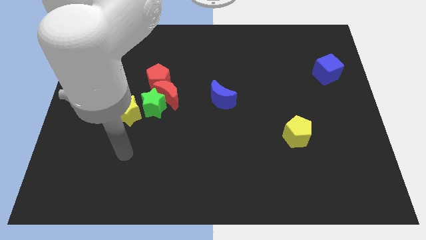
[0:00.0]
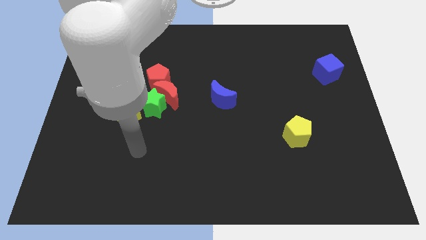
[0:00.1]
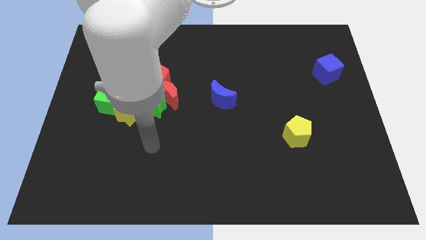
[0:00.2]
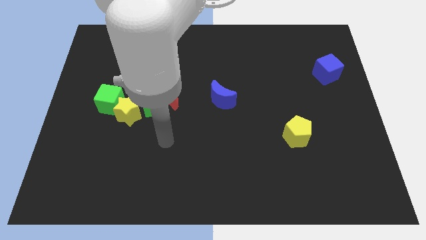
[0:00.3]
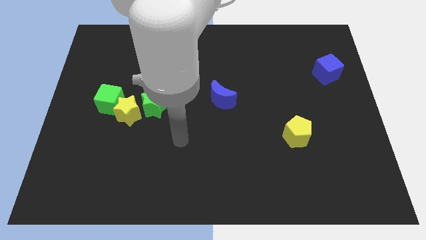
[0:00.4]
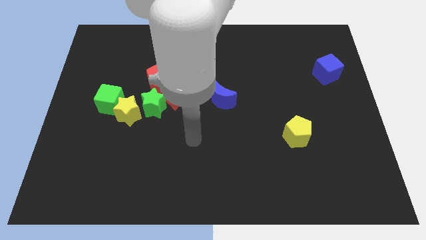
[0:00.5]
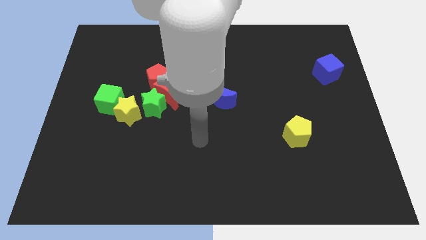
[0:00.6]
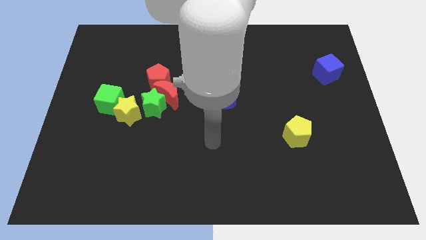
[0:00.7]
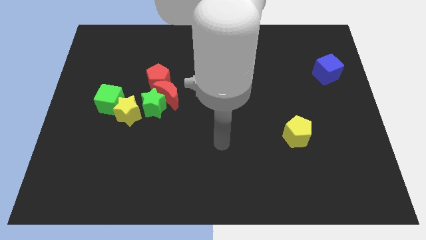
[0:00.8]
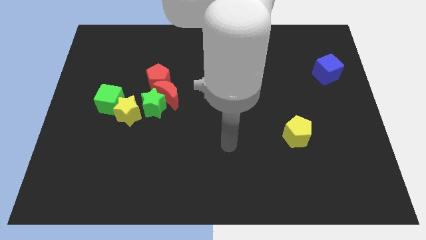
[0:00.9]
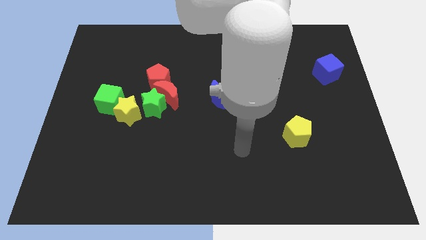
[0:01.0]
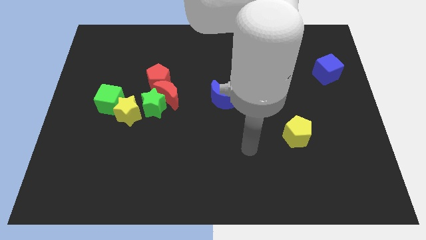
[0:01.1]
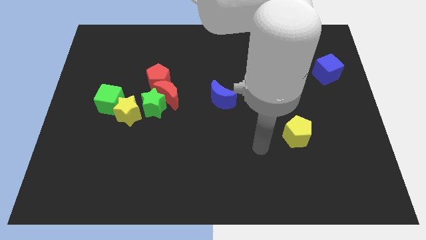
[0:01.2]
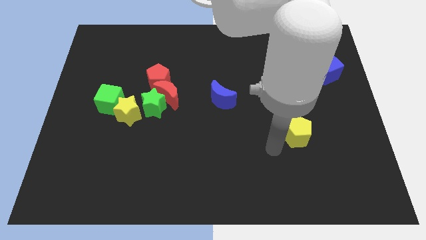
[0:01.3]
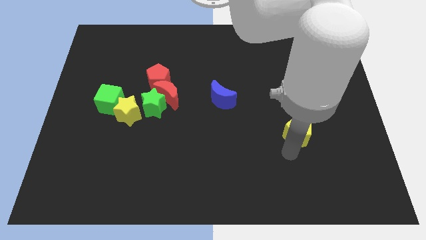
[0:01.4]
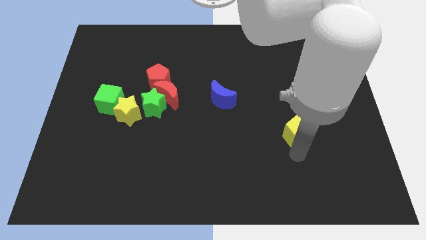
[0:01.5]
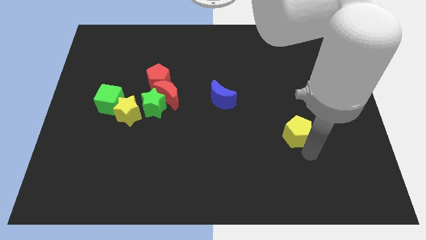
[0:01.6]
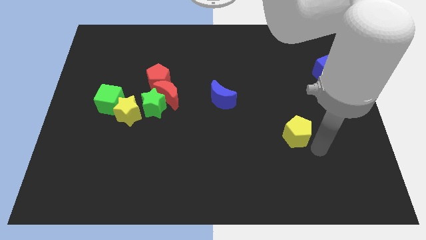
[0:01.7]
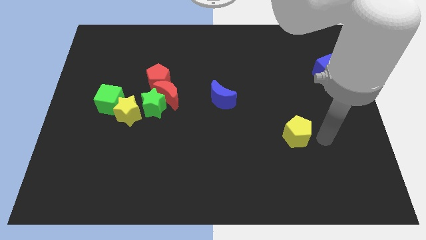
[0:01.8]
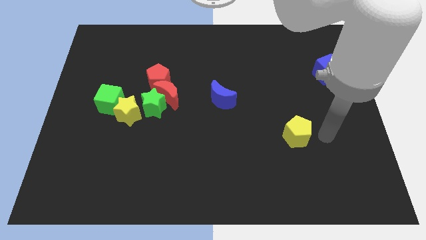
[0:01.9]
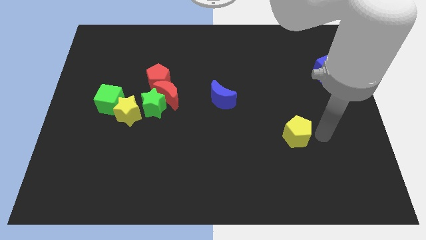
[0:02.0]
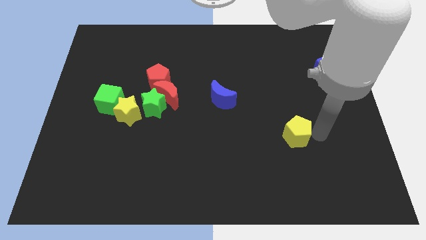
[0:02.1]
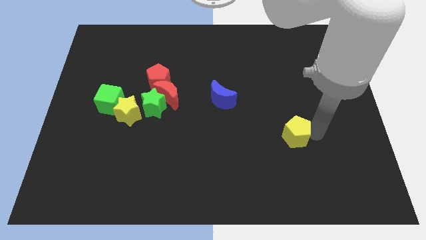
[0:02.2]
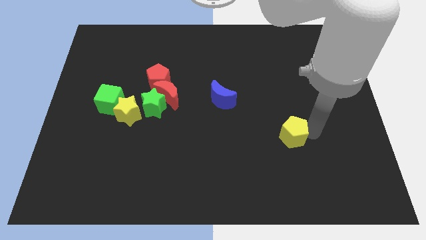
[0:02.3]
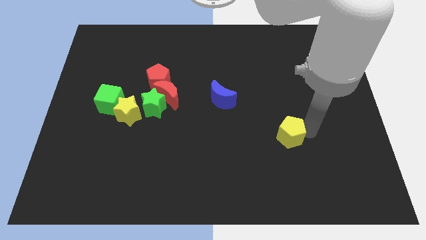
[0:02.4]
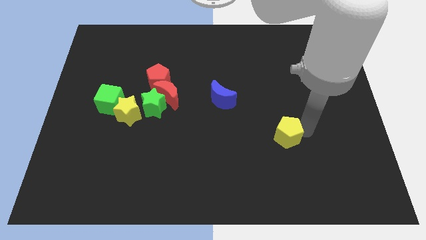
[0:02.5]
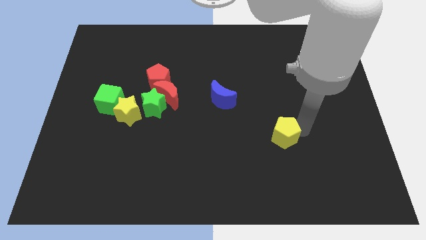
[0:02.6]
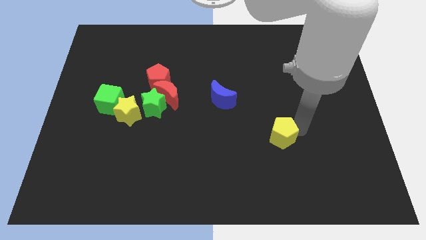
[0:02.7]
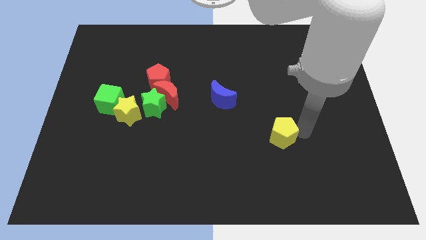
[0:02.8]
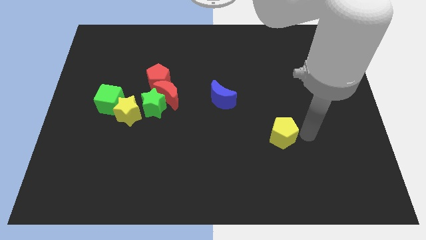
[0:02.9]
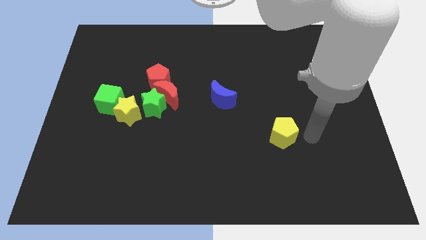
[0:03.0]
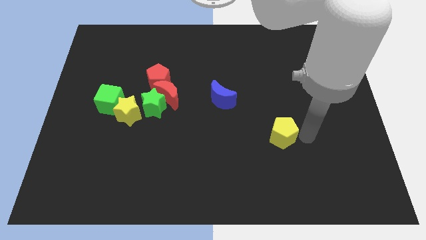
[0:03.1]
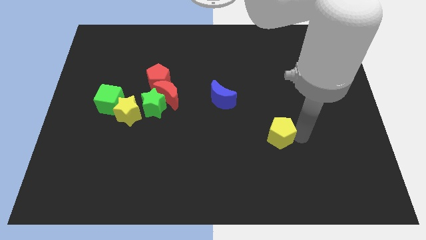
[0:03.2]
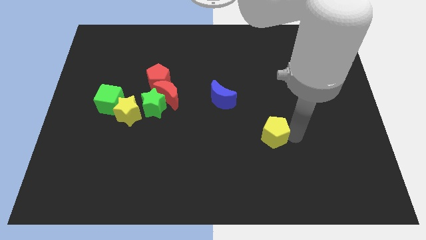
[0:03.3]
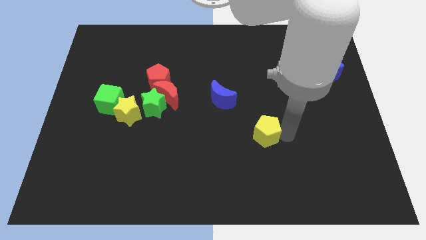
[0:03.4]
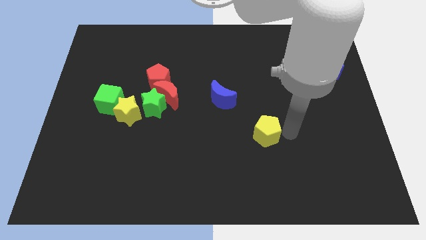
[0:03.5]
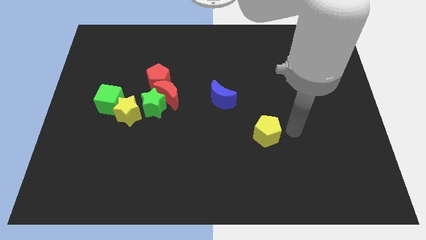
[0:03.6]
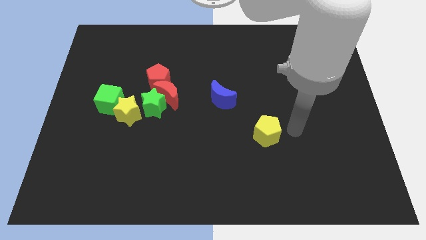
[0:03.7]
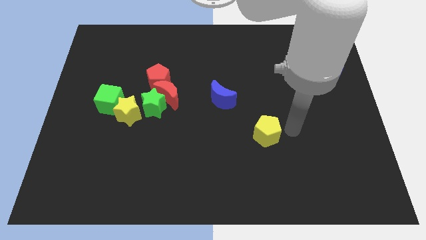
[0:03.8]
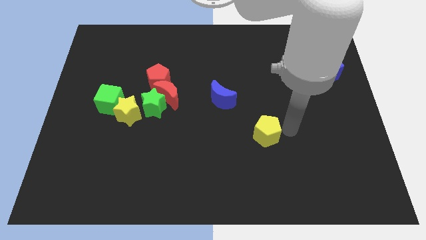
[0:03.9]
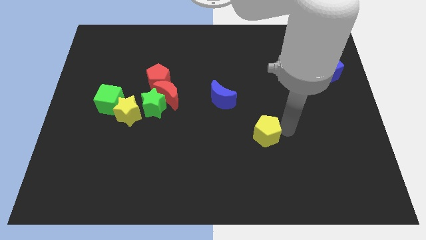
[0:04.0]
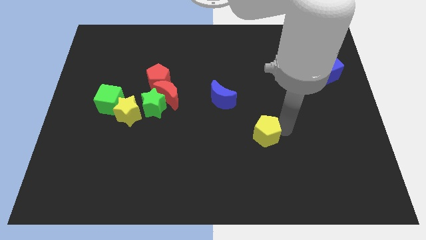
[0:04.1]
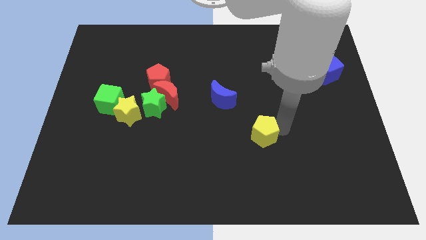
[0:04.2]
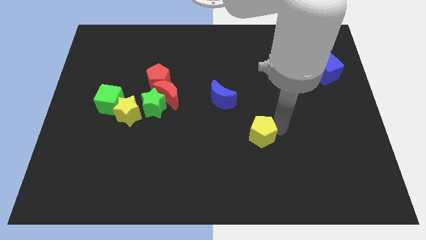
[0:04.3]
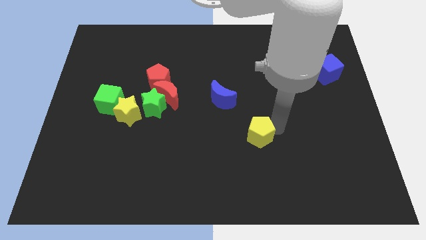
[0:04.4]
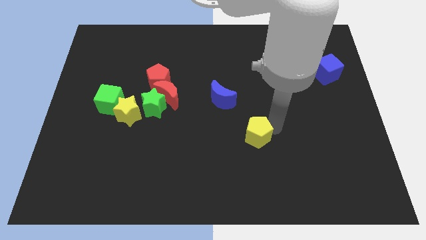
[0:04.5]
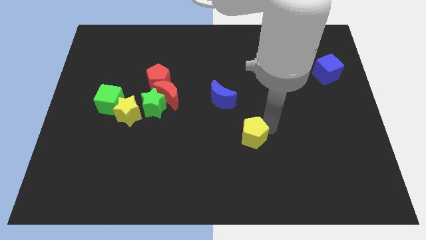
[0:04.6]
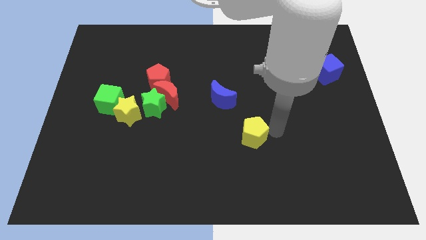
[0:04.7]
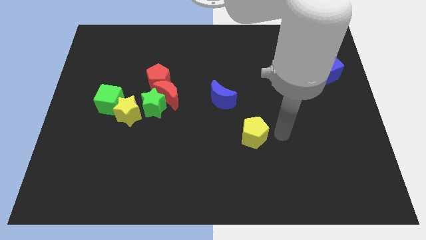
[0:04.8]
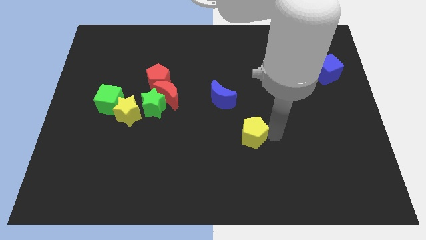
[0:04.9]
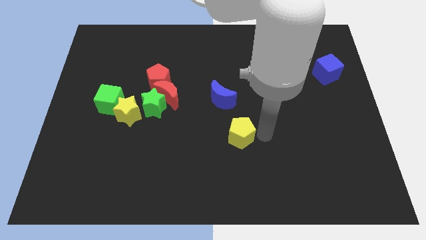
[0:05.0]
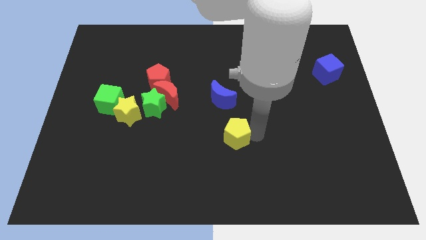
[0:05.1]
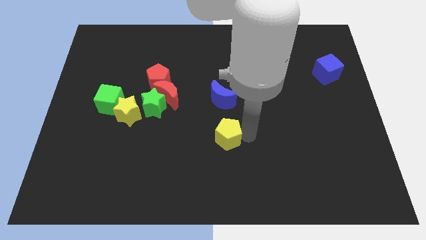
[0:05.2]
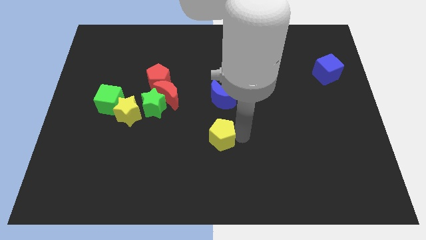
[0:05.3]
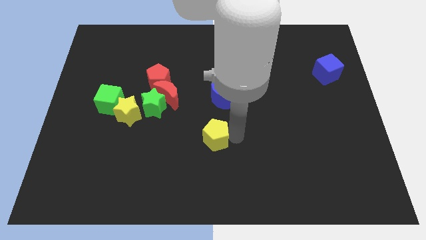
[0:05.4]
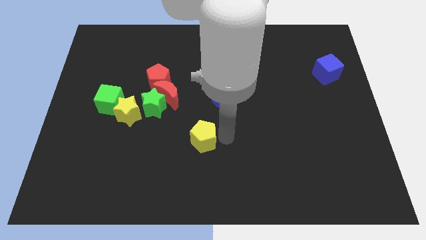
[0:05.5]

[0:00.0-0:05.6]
push the yellow pentagon to the left

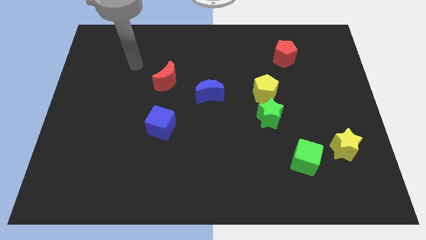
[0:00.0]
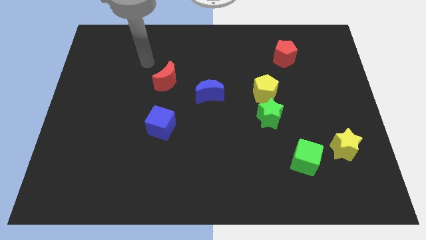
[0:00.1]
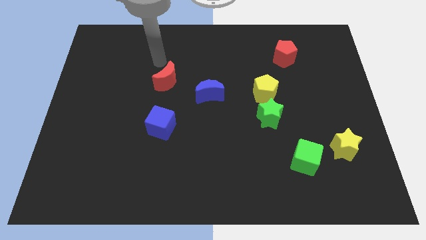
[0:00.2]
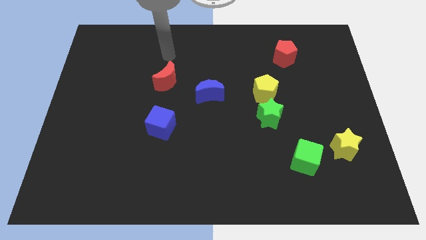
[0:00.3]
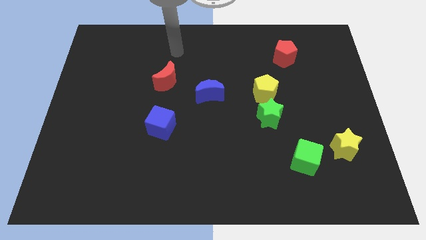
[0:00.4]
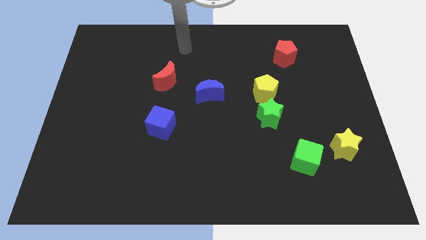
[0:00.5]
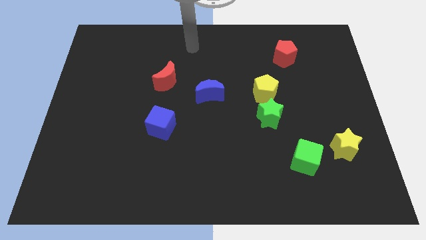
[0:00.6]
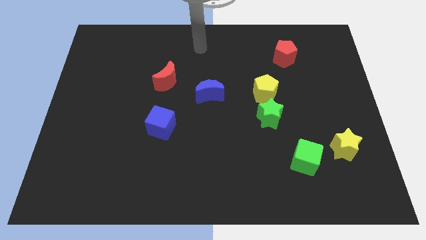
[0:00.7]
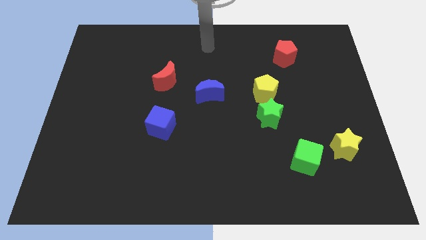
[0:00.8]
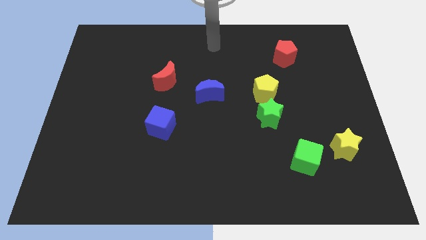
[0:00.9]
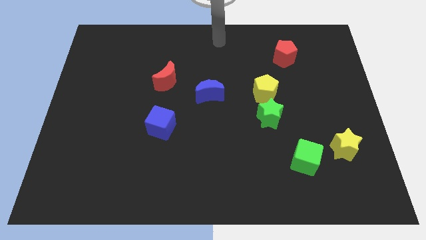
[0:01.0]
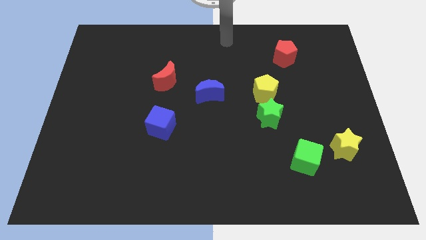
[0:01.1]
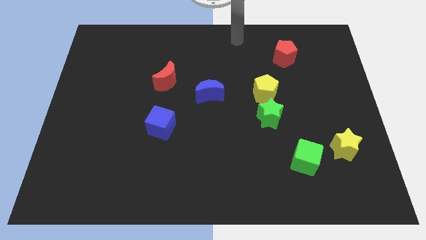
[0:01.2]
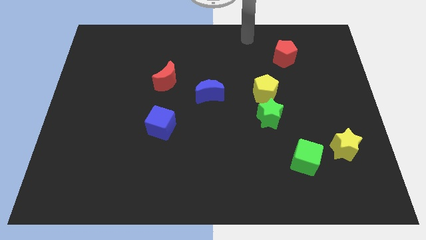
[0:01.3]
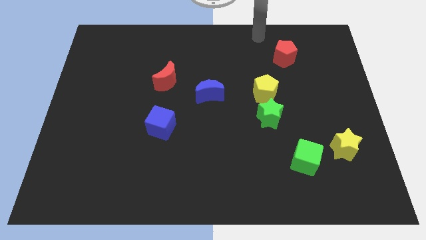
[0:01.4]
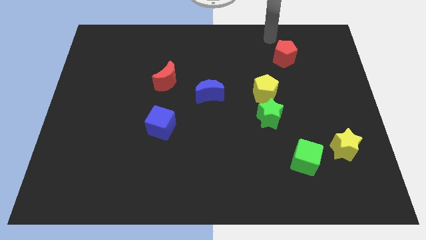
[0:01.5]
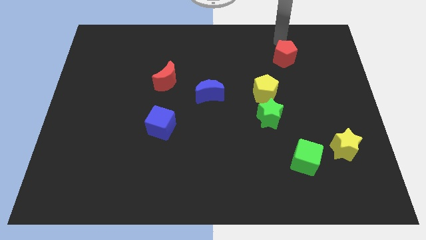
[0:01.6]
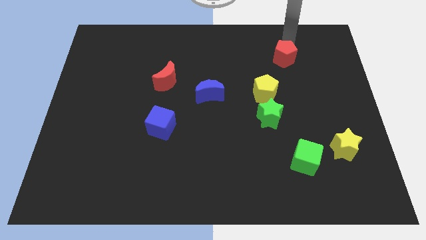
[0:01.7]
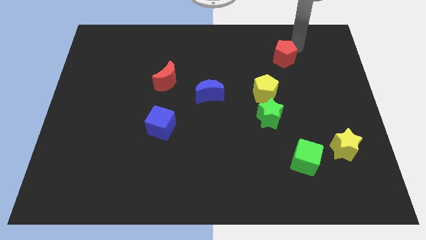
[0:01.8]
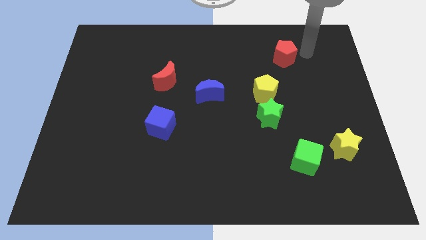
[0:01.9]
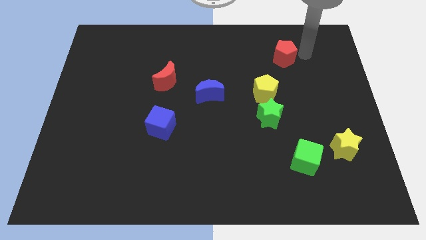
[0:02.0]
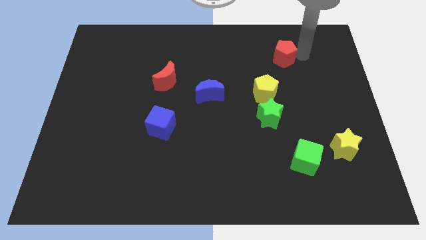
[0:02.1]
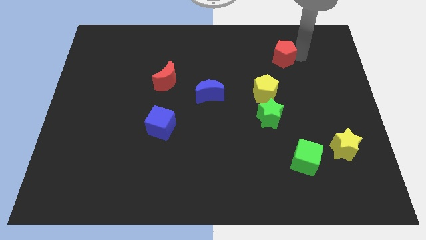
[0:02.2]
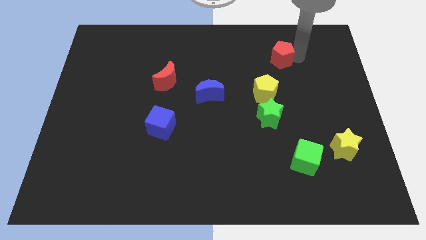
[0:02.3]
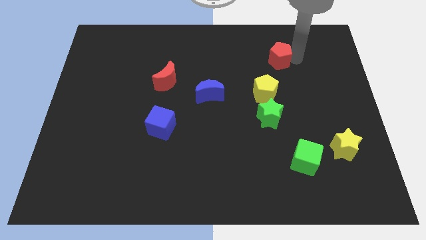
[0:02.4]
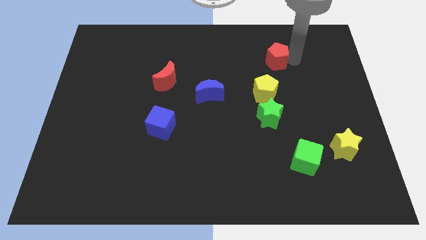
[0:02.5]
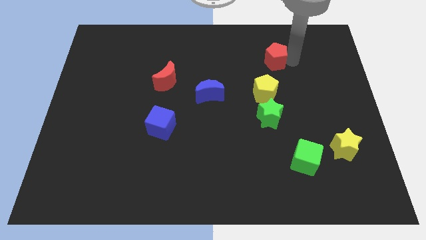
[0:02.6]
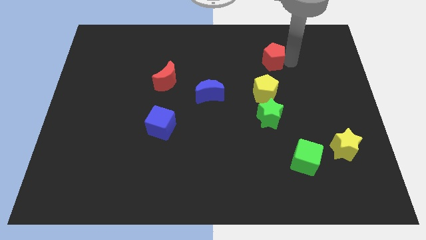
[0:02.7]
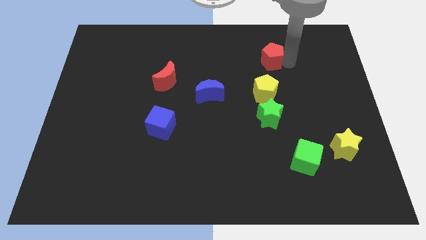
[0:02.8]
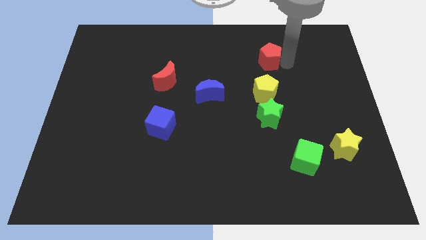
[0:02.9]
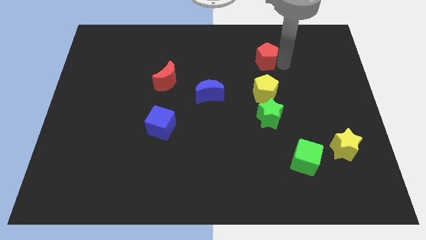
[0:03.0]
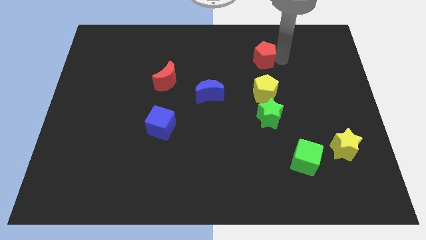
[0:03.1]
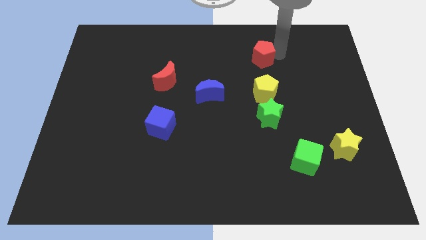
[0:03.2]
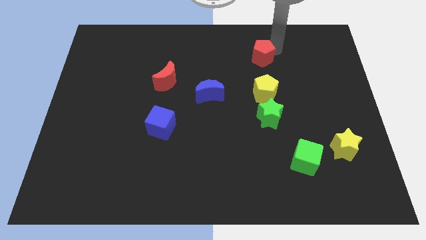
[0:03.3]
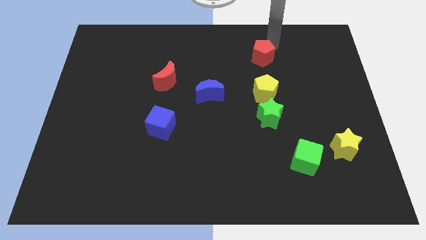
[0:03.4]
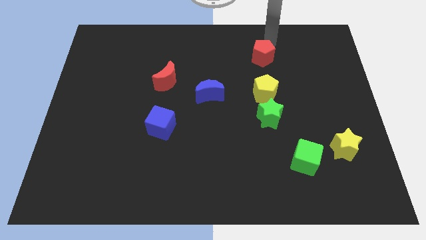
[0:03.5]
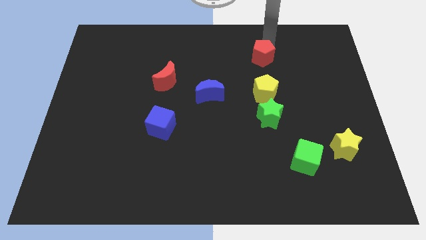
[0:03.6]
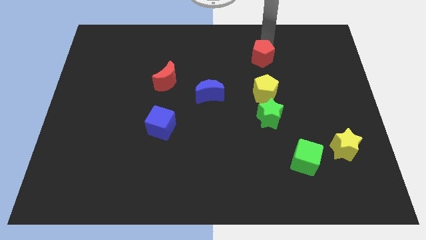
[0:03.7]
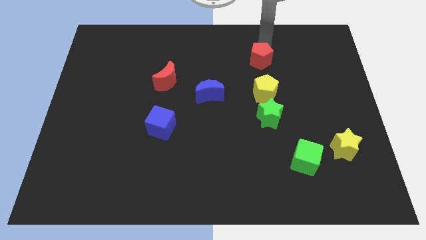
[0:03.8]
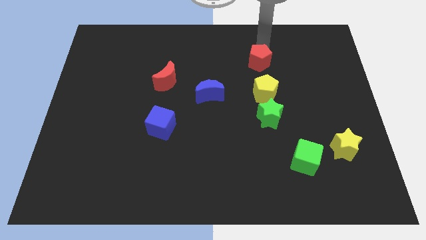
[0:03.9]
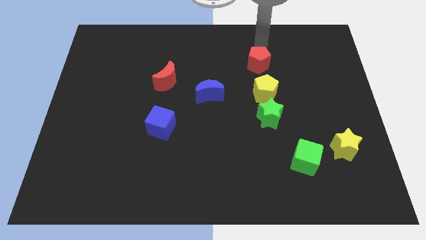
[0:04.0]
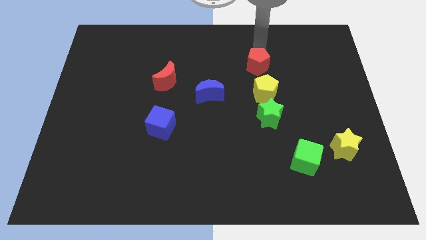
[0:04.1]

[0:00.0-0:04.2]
move the red pentagon downwards and to the left a little bit
